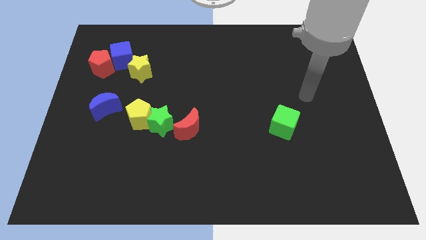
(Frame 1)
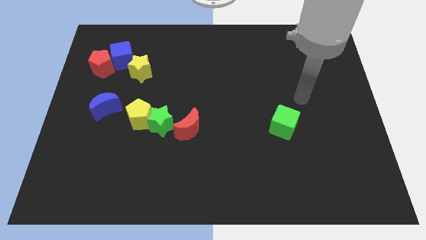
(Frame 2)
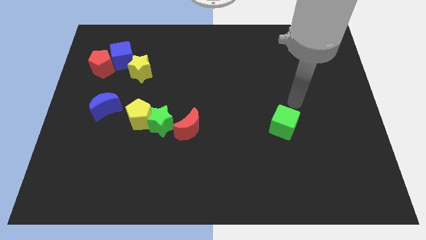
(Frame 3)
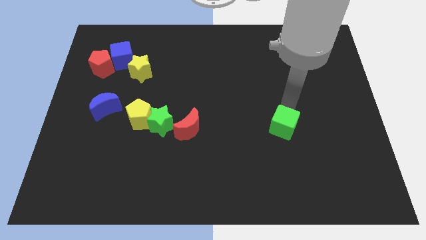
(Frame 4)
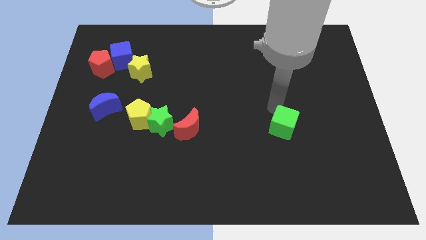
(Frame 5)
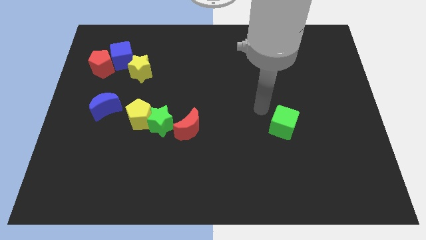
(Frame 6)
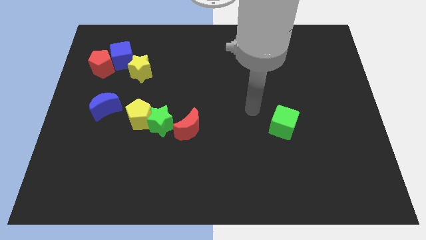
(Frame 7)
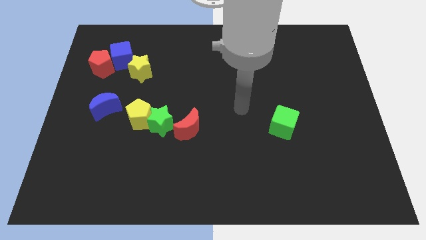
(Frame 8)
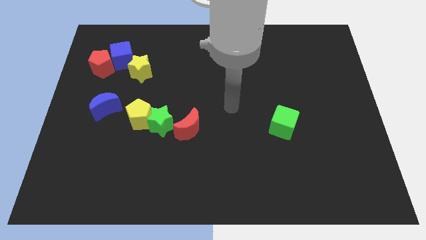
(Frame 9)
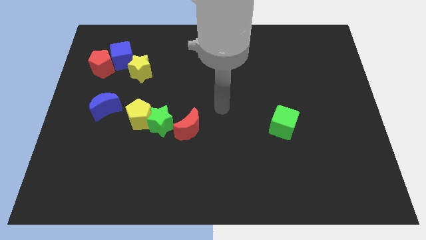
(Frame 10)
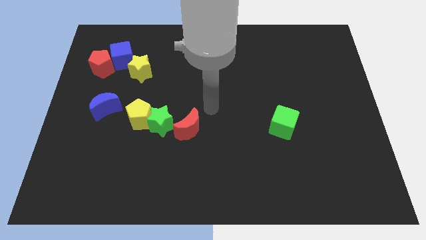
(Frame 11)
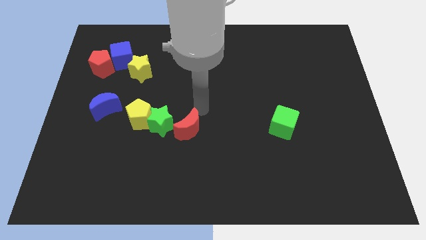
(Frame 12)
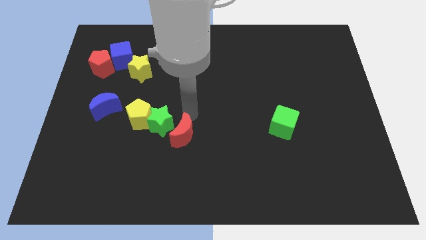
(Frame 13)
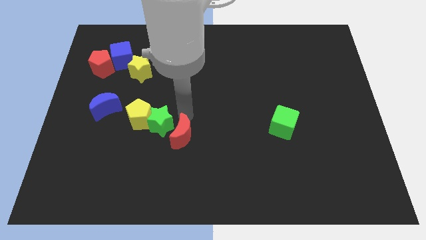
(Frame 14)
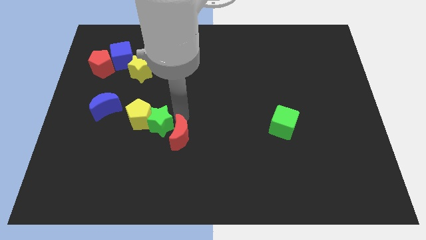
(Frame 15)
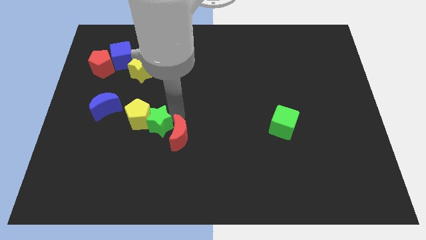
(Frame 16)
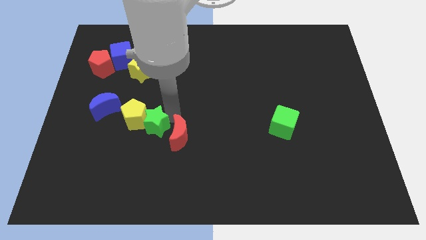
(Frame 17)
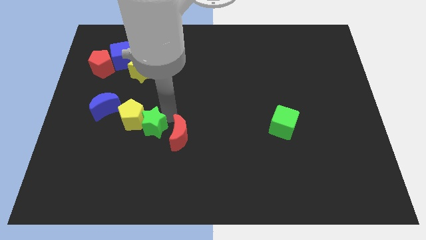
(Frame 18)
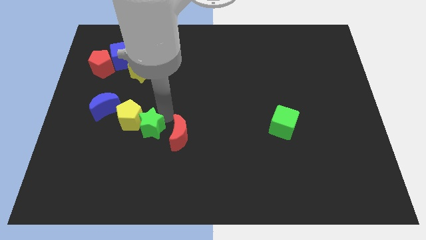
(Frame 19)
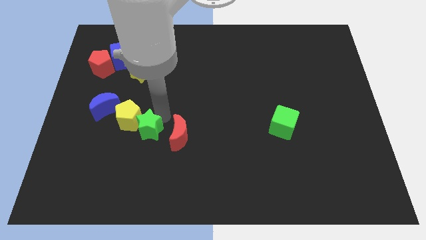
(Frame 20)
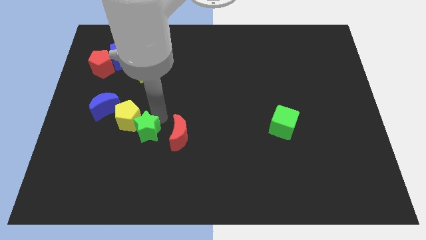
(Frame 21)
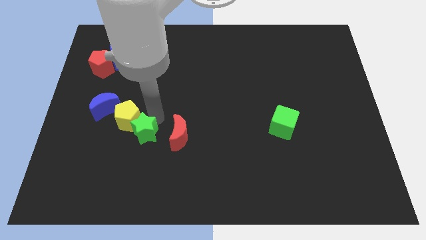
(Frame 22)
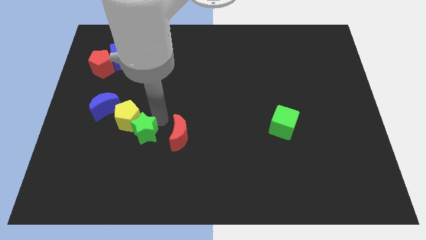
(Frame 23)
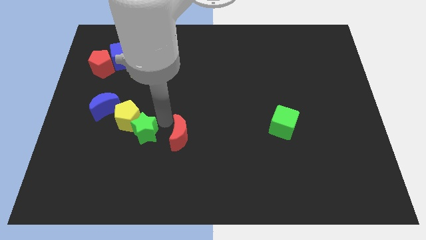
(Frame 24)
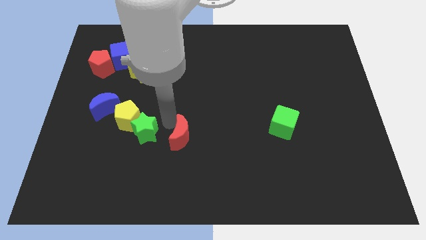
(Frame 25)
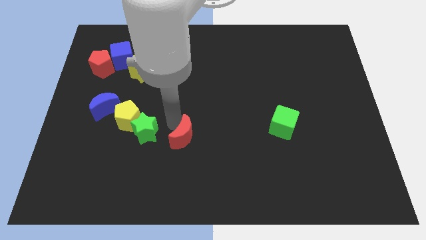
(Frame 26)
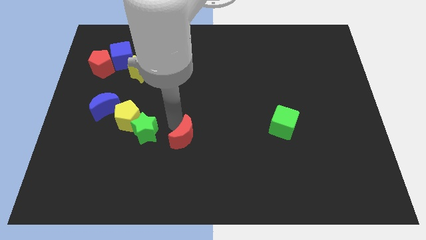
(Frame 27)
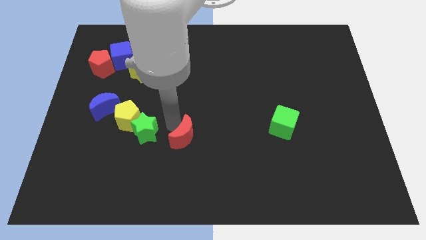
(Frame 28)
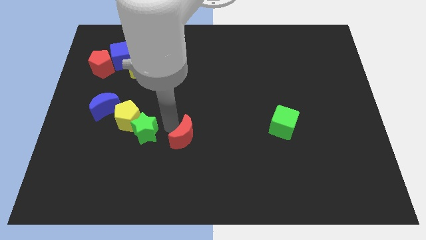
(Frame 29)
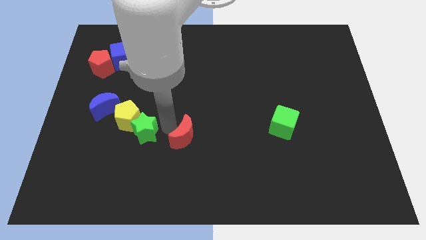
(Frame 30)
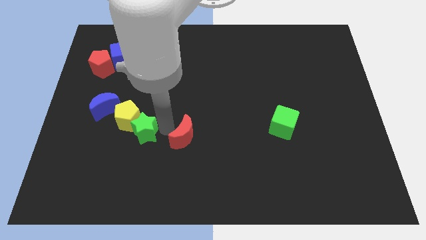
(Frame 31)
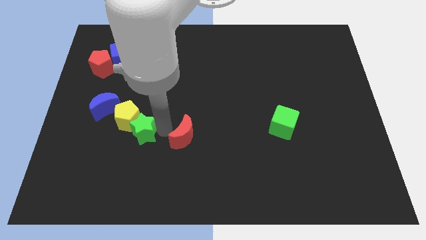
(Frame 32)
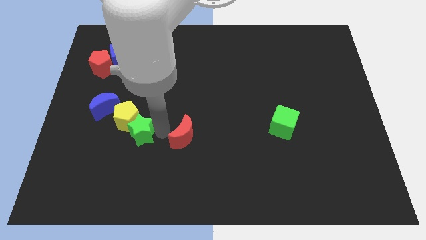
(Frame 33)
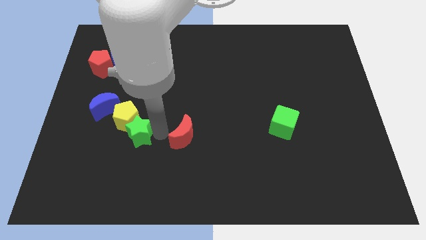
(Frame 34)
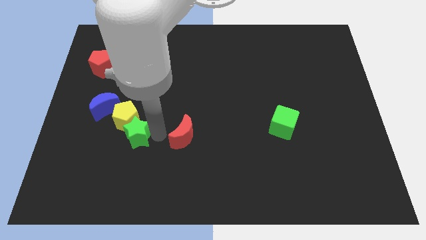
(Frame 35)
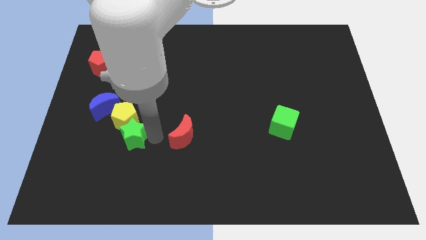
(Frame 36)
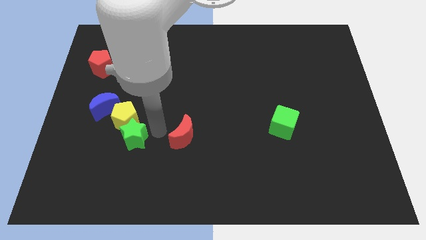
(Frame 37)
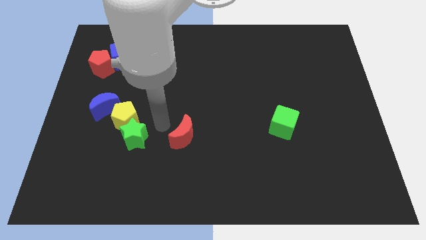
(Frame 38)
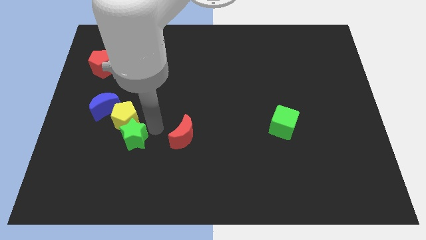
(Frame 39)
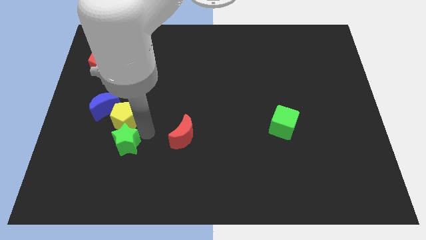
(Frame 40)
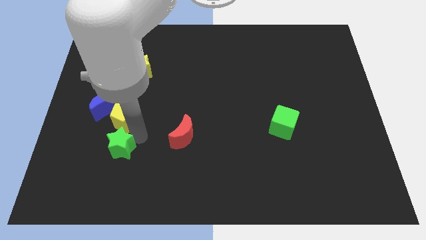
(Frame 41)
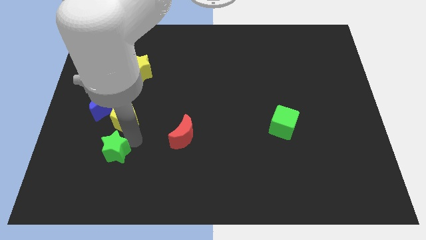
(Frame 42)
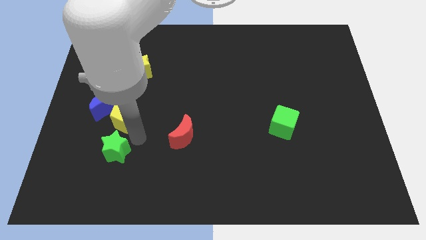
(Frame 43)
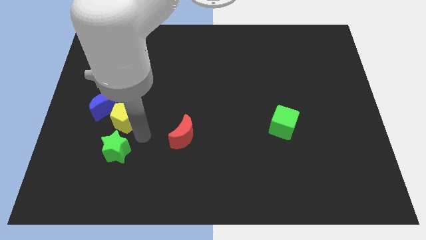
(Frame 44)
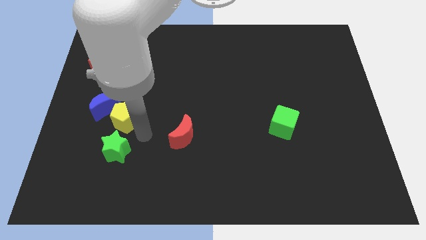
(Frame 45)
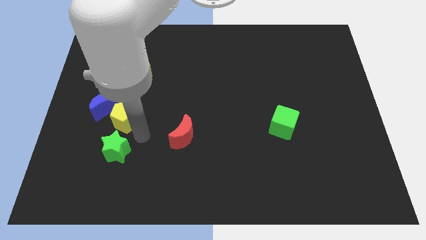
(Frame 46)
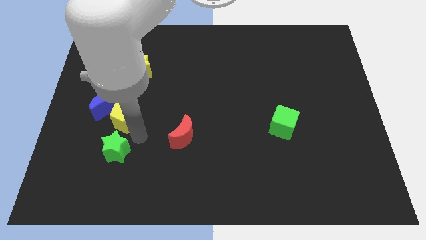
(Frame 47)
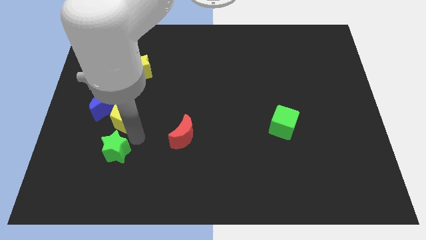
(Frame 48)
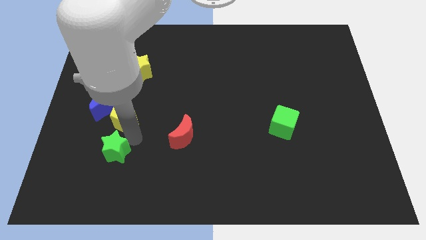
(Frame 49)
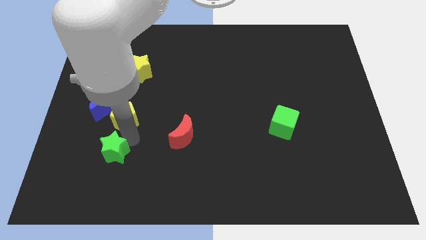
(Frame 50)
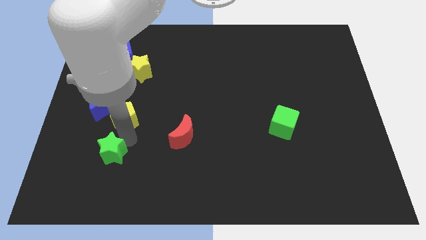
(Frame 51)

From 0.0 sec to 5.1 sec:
separate the green star from the yellow pentagon and red moon

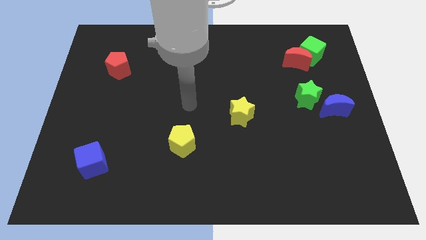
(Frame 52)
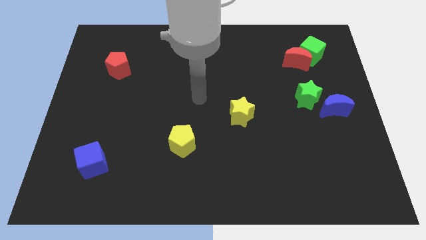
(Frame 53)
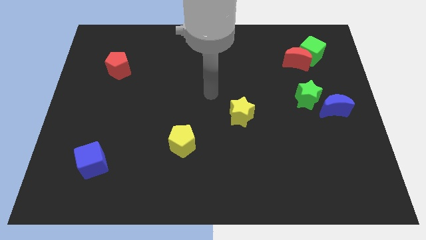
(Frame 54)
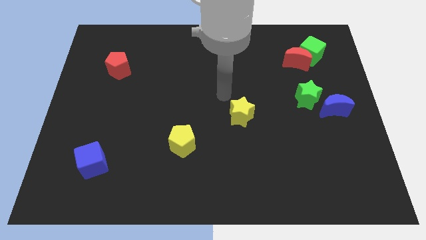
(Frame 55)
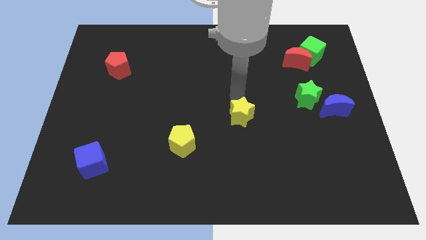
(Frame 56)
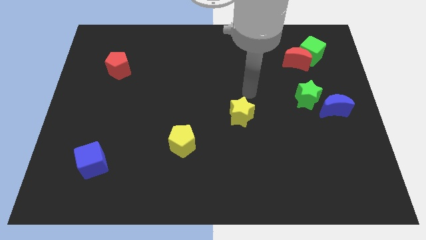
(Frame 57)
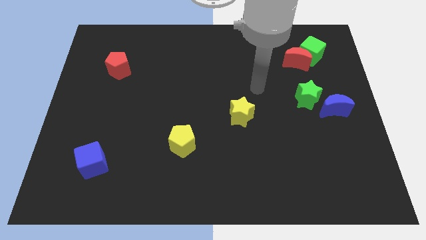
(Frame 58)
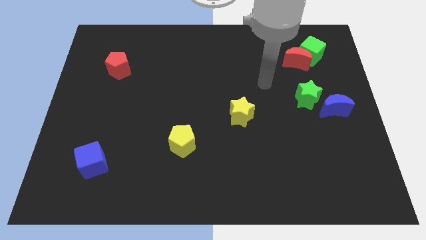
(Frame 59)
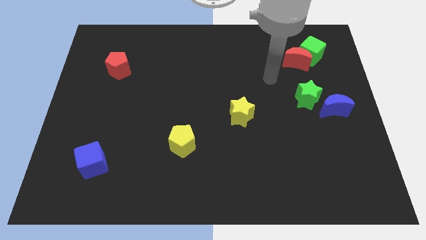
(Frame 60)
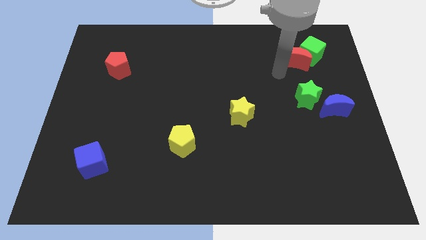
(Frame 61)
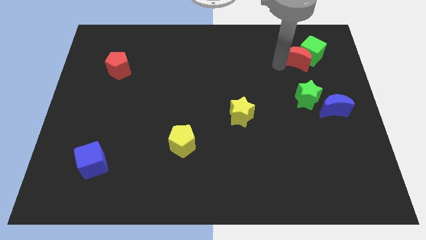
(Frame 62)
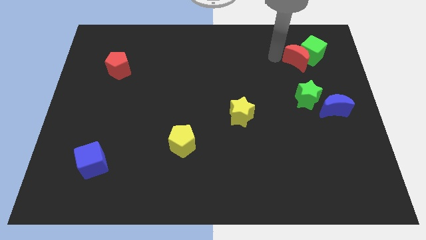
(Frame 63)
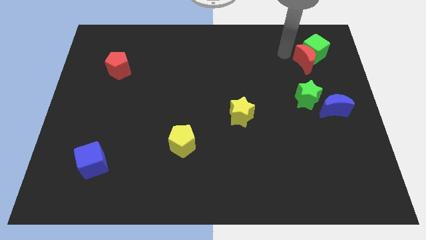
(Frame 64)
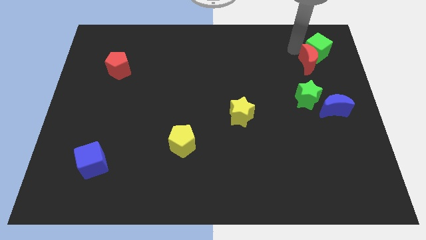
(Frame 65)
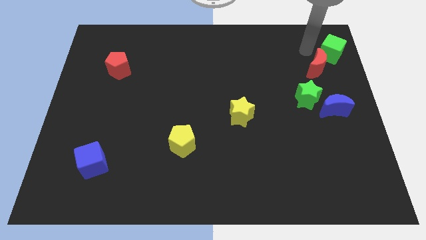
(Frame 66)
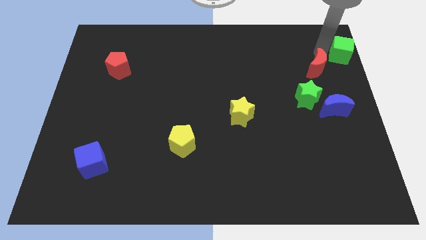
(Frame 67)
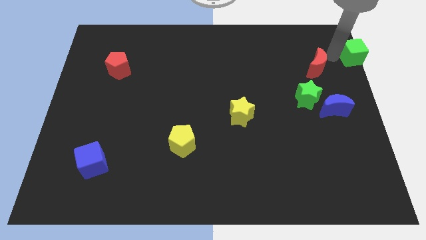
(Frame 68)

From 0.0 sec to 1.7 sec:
pull the red moon apart from the green cube

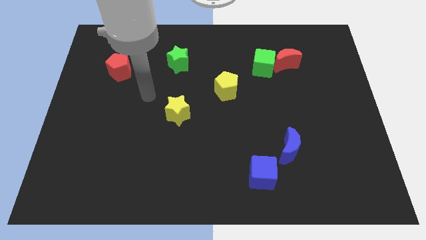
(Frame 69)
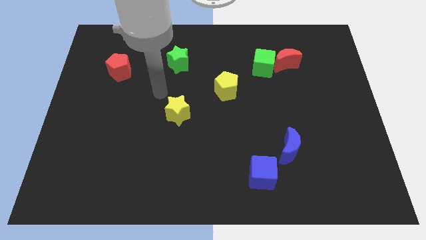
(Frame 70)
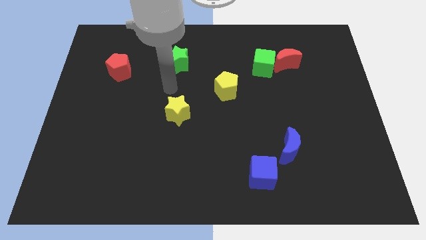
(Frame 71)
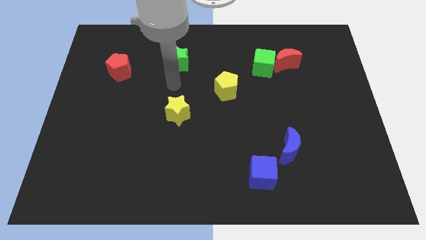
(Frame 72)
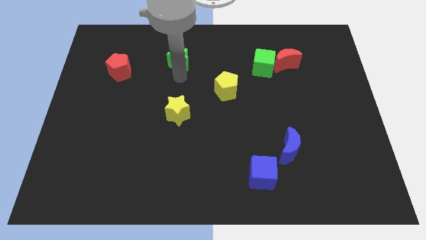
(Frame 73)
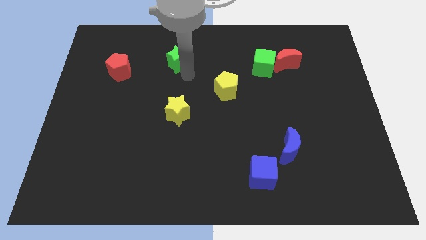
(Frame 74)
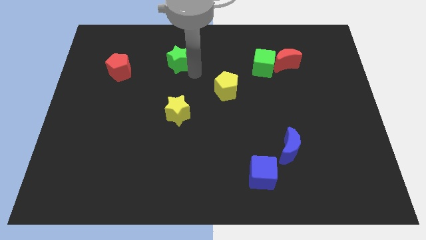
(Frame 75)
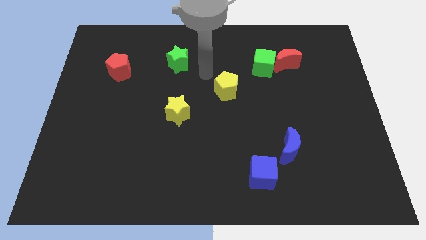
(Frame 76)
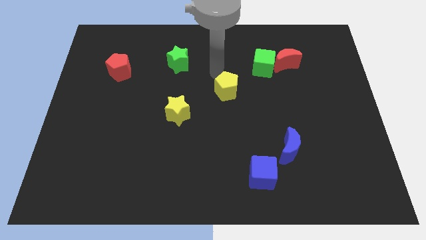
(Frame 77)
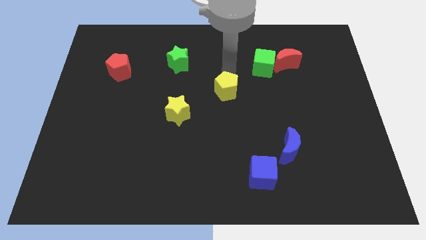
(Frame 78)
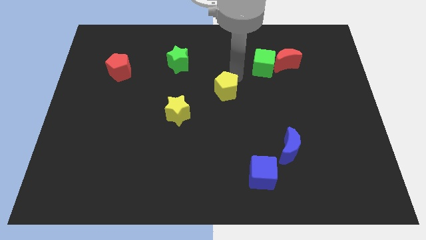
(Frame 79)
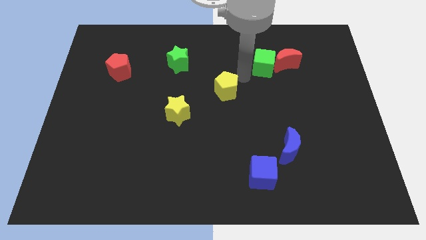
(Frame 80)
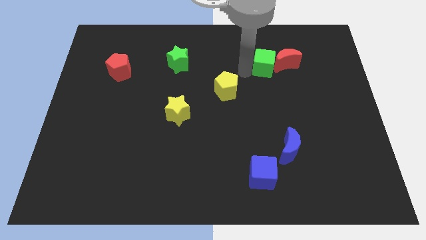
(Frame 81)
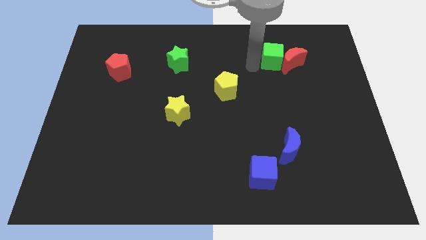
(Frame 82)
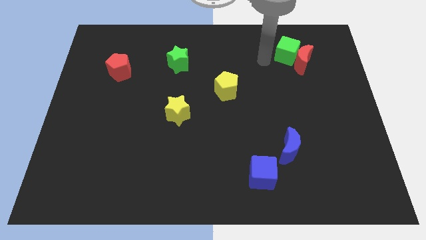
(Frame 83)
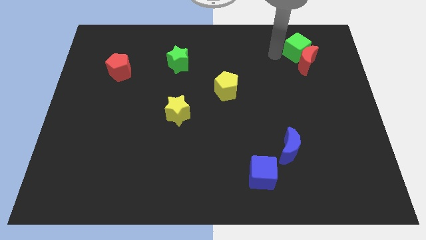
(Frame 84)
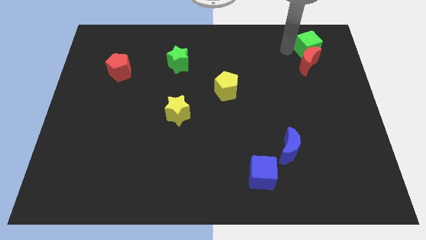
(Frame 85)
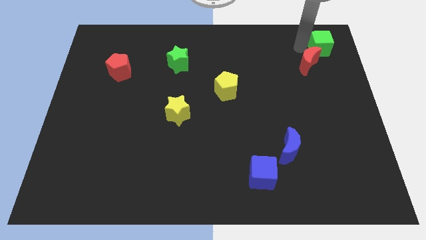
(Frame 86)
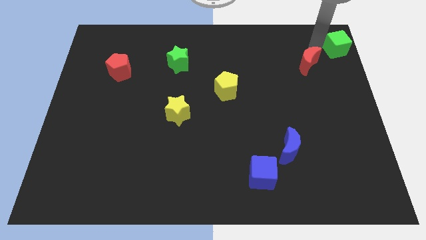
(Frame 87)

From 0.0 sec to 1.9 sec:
separate the red moon from the green cube

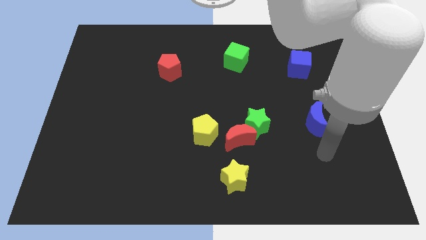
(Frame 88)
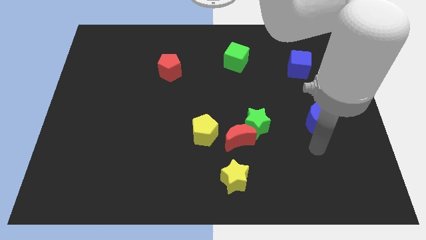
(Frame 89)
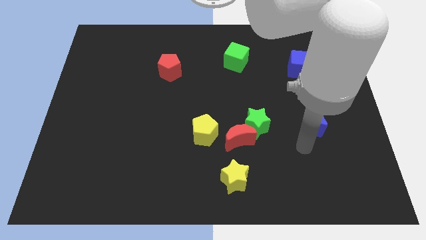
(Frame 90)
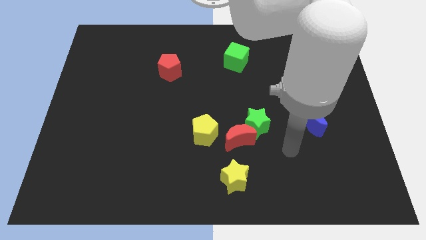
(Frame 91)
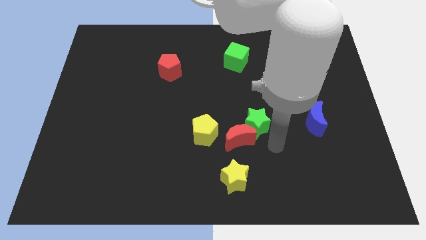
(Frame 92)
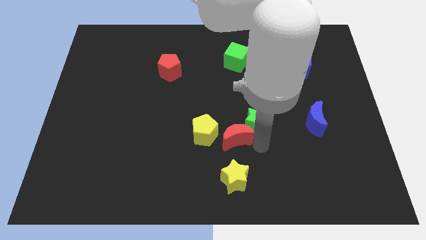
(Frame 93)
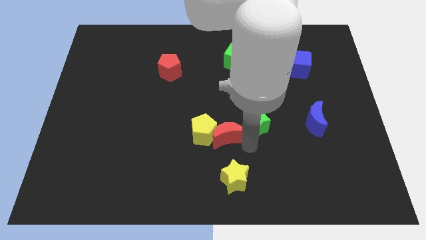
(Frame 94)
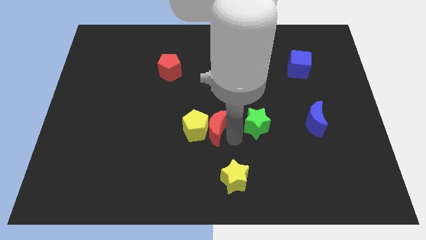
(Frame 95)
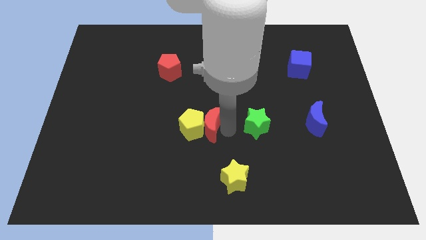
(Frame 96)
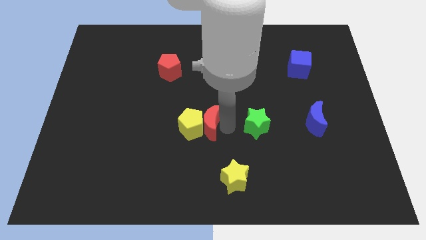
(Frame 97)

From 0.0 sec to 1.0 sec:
separate the green star from the red moon
